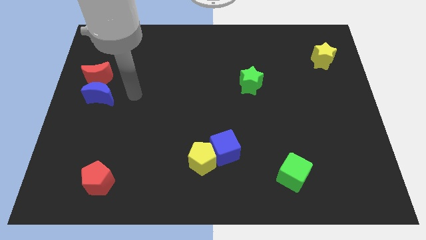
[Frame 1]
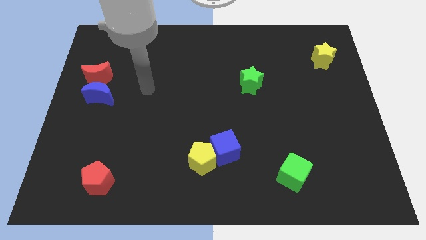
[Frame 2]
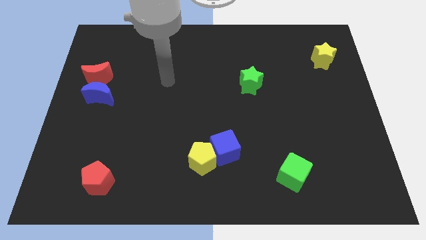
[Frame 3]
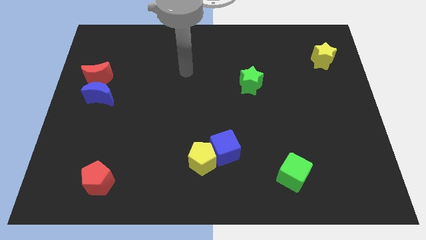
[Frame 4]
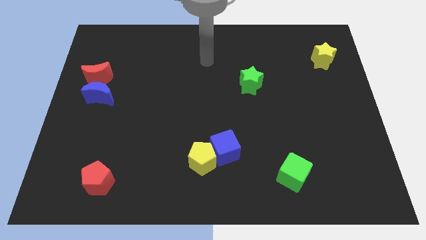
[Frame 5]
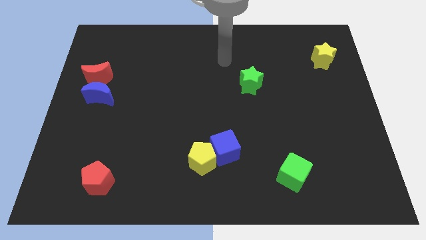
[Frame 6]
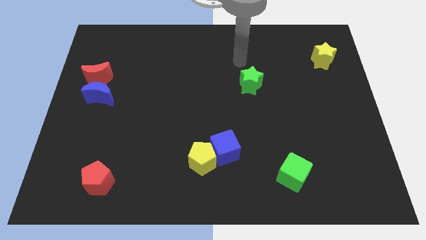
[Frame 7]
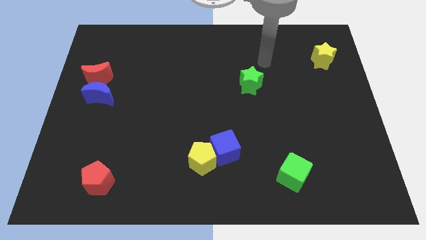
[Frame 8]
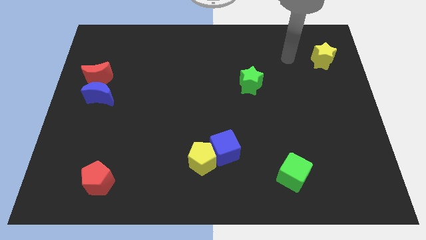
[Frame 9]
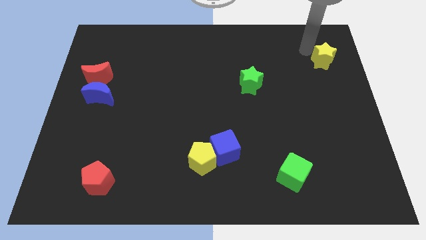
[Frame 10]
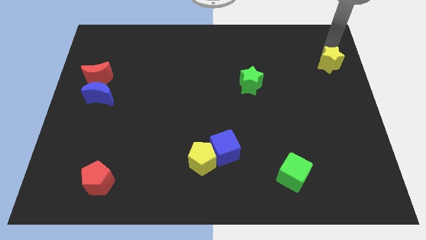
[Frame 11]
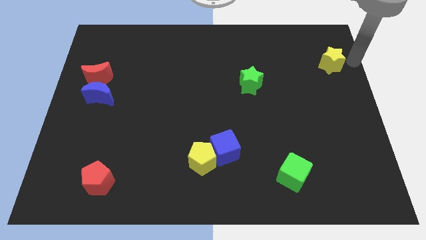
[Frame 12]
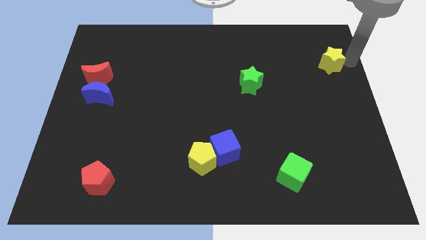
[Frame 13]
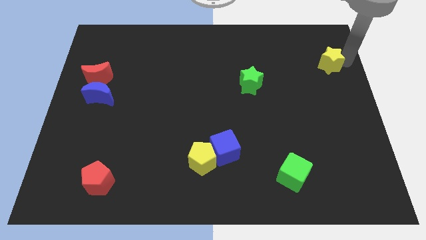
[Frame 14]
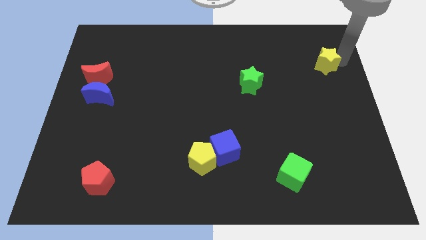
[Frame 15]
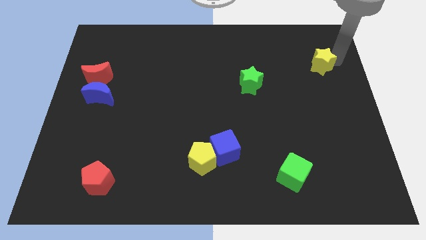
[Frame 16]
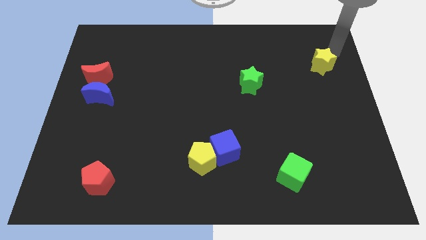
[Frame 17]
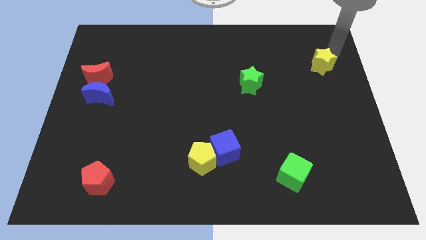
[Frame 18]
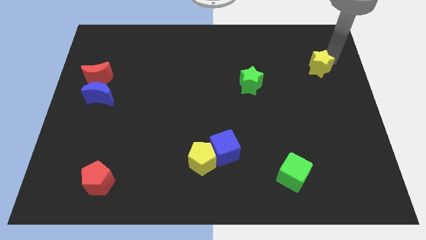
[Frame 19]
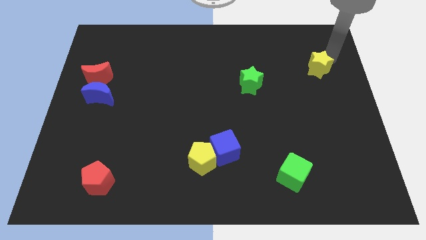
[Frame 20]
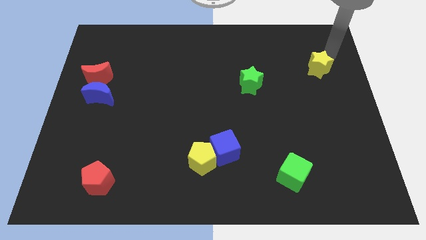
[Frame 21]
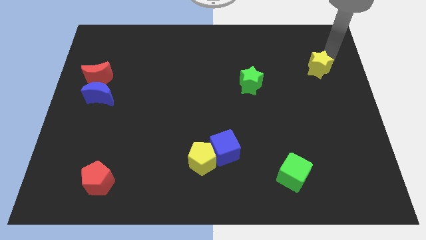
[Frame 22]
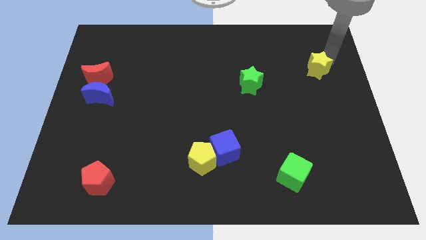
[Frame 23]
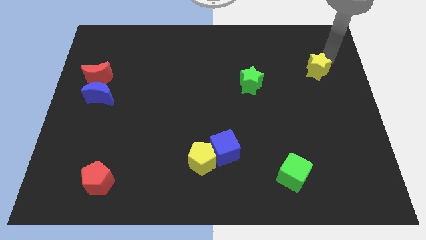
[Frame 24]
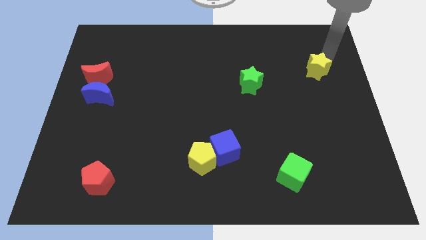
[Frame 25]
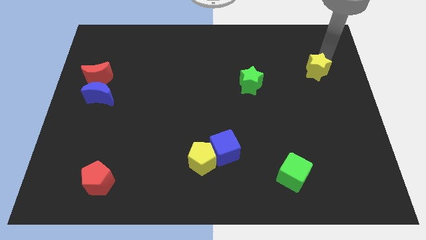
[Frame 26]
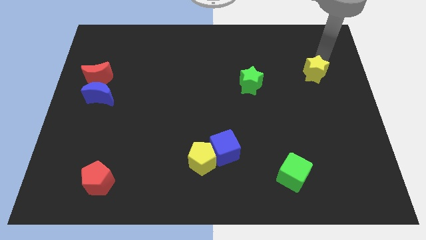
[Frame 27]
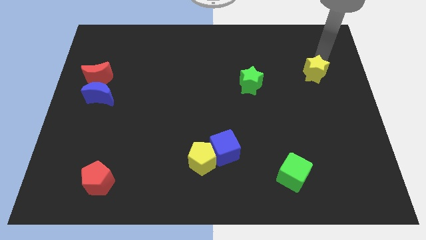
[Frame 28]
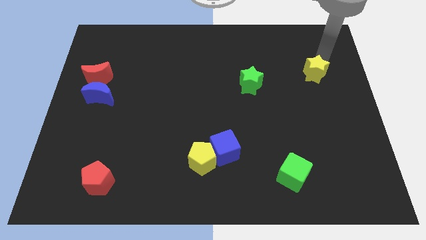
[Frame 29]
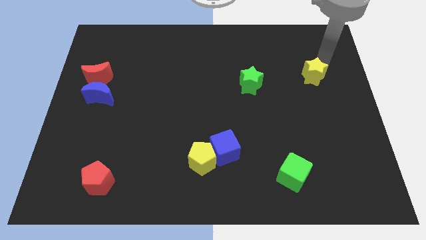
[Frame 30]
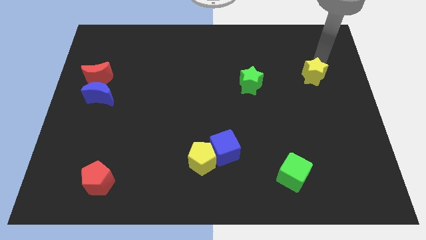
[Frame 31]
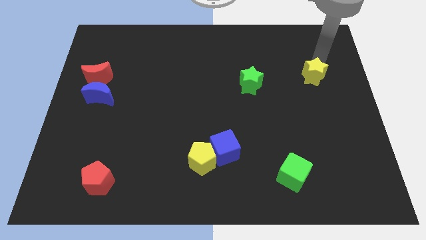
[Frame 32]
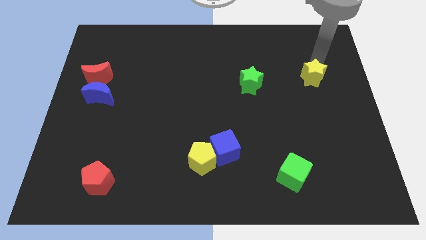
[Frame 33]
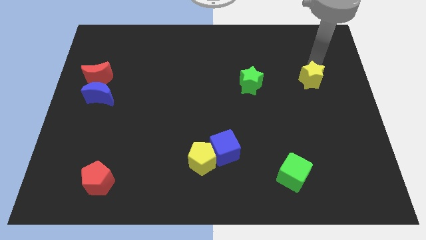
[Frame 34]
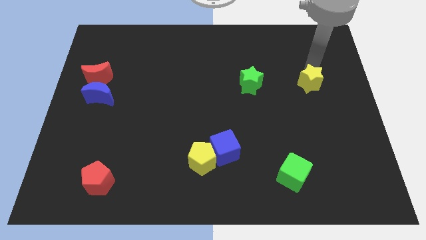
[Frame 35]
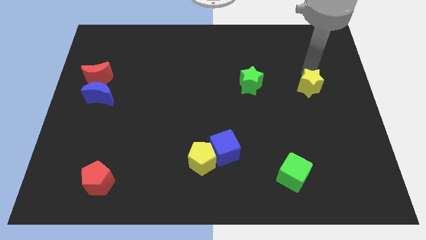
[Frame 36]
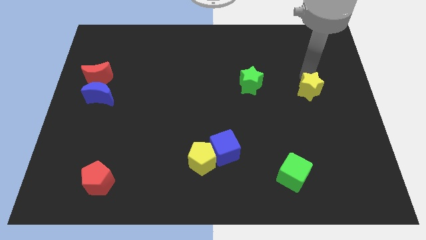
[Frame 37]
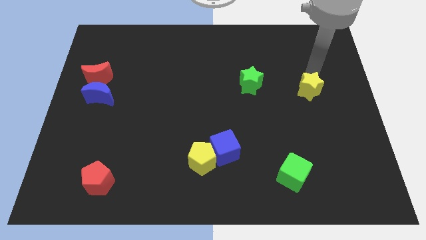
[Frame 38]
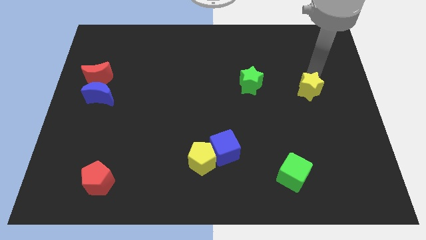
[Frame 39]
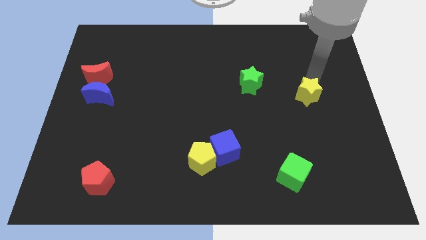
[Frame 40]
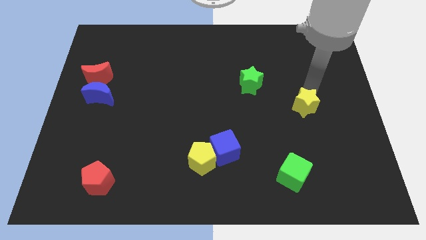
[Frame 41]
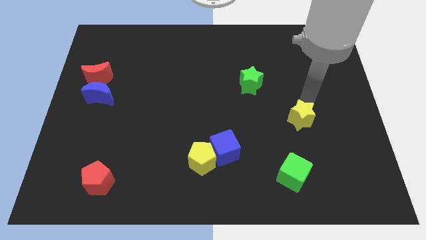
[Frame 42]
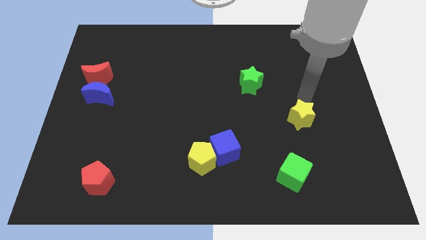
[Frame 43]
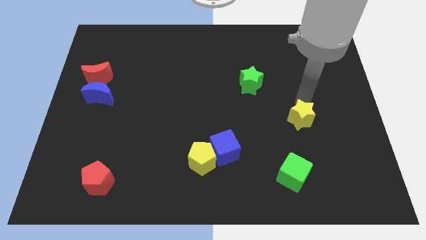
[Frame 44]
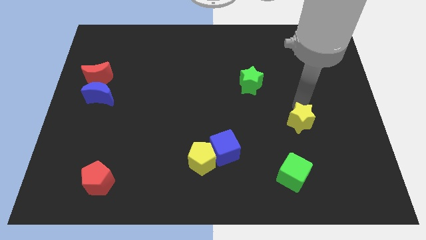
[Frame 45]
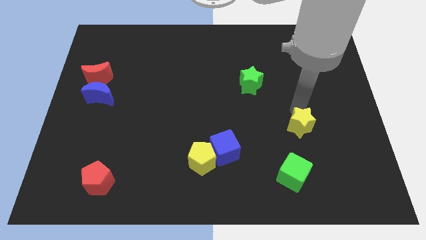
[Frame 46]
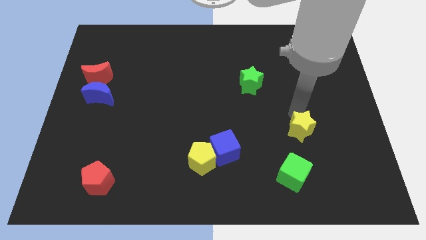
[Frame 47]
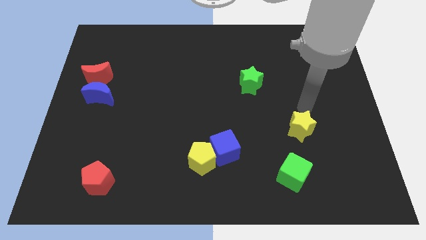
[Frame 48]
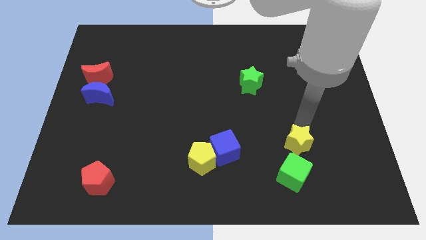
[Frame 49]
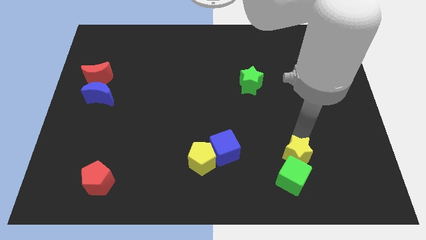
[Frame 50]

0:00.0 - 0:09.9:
move the yellow star close to the green cube

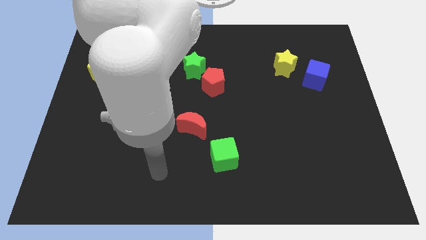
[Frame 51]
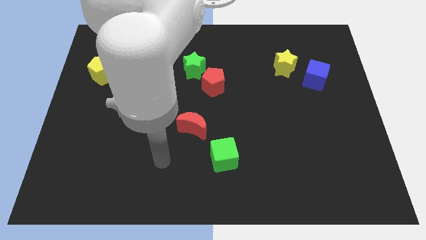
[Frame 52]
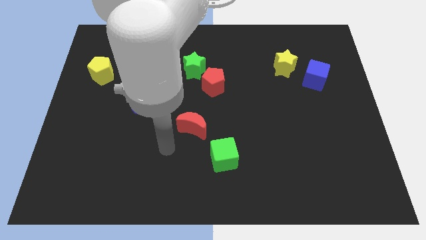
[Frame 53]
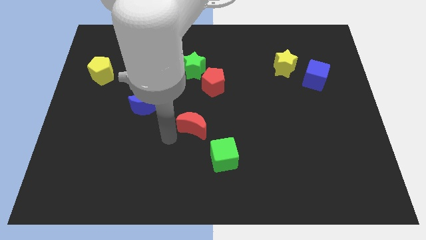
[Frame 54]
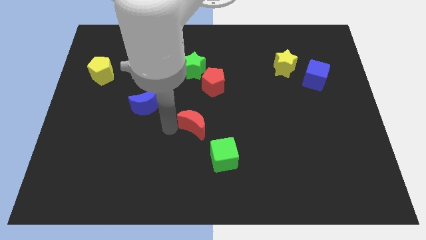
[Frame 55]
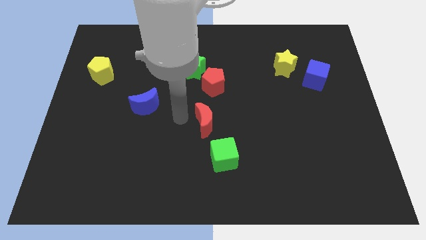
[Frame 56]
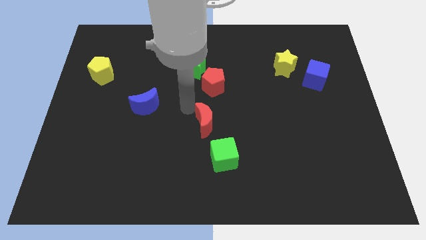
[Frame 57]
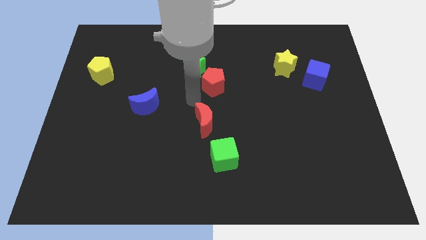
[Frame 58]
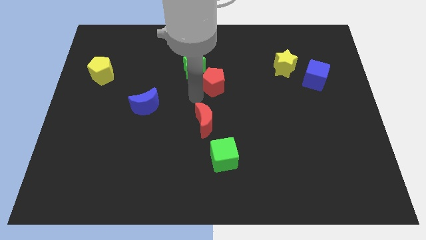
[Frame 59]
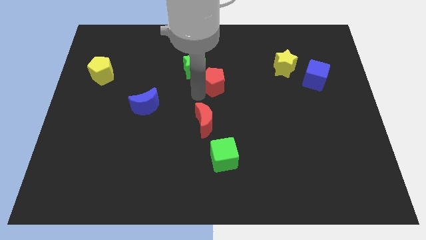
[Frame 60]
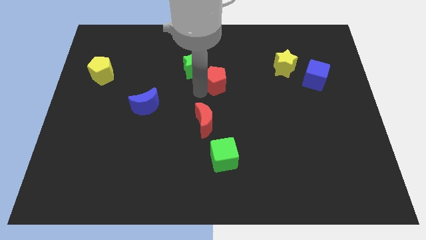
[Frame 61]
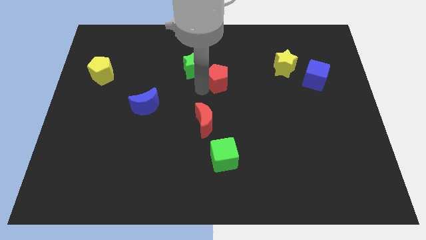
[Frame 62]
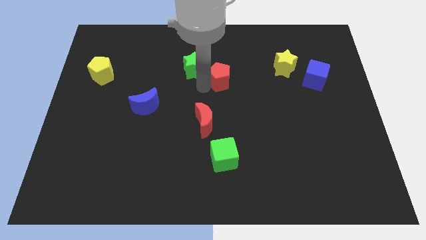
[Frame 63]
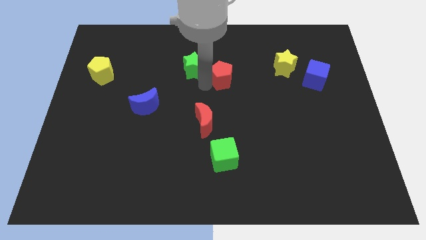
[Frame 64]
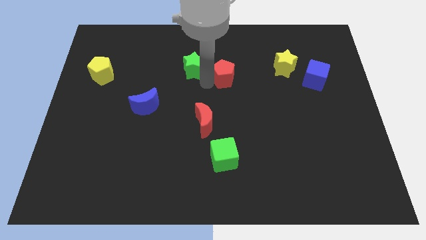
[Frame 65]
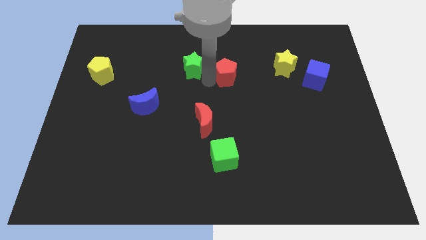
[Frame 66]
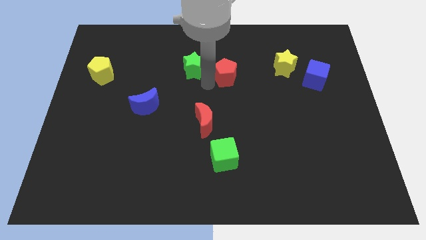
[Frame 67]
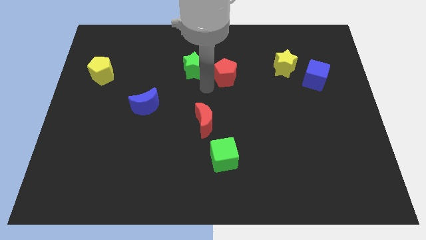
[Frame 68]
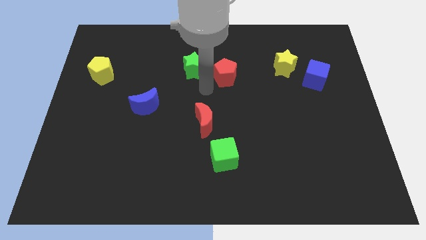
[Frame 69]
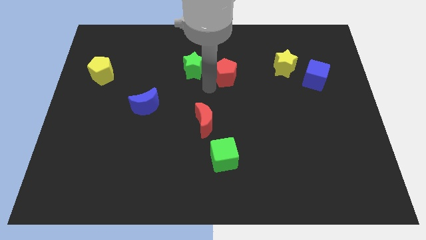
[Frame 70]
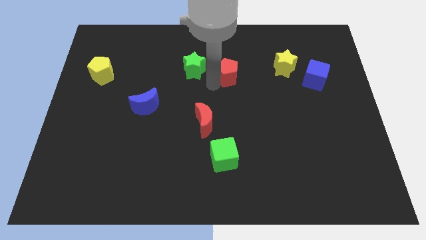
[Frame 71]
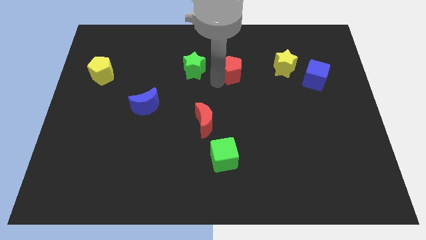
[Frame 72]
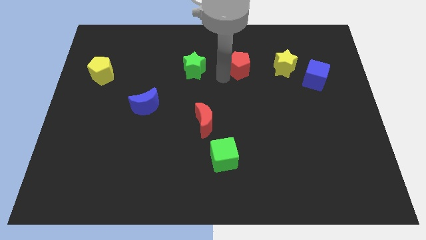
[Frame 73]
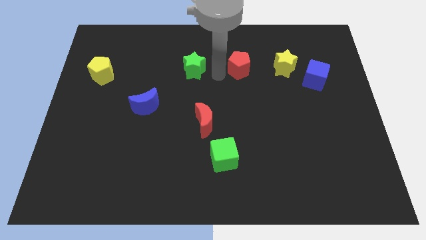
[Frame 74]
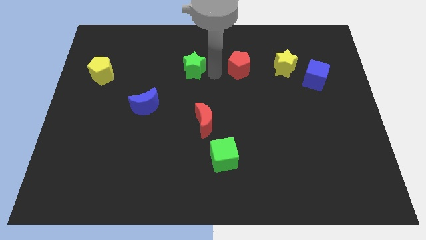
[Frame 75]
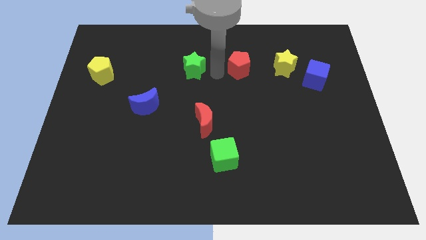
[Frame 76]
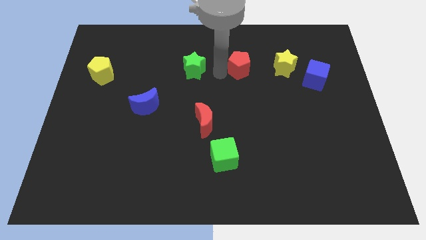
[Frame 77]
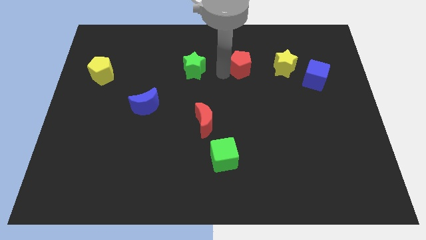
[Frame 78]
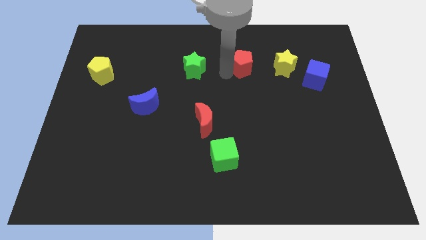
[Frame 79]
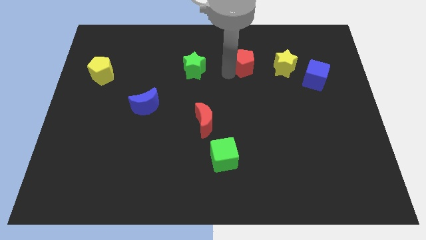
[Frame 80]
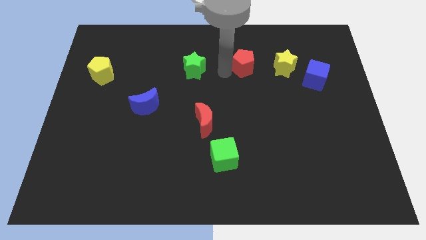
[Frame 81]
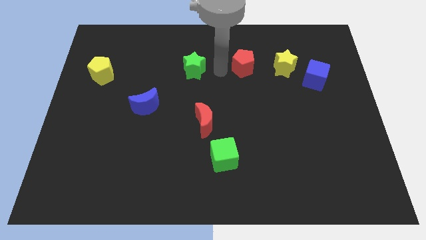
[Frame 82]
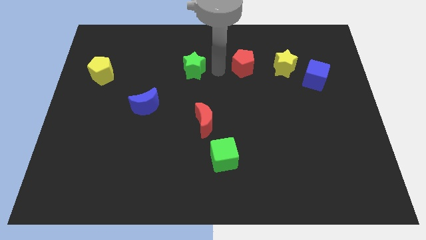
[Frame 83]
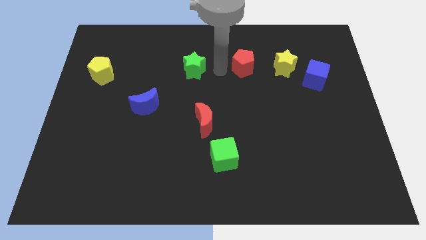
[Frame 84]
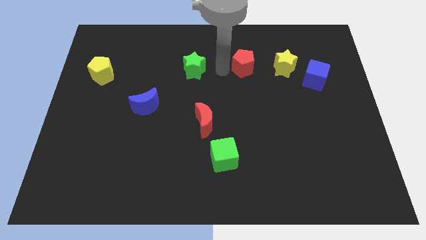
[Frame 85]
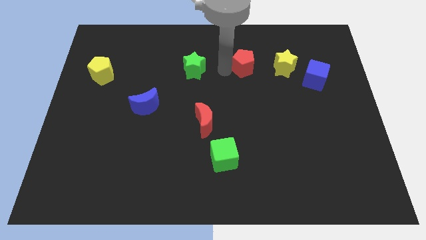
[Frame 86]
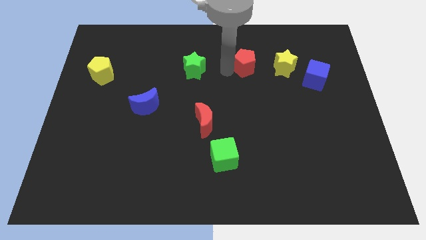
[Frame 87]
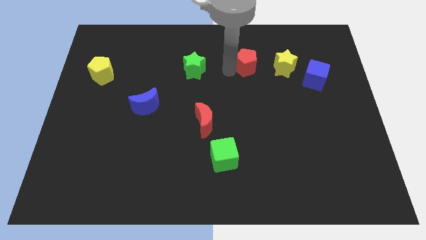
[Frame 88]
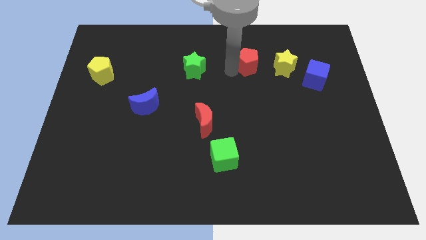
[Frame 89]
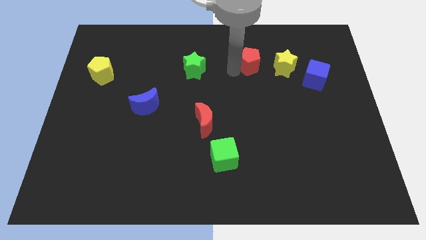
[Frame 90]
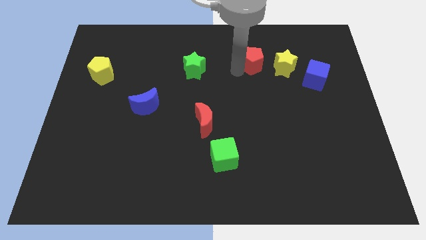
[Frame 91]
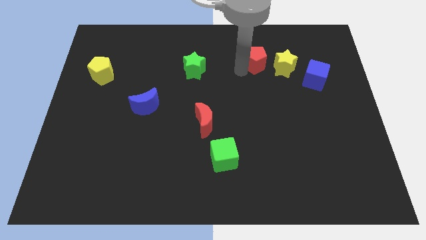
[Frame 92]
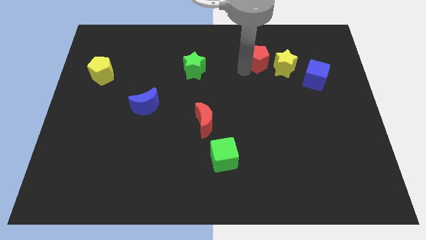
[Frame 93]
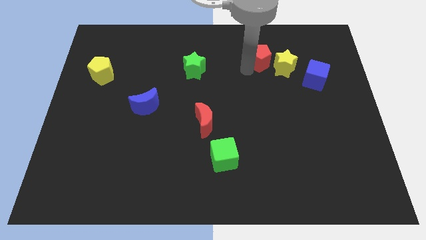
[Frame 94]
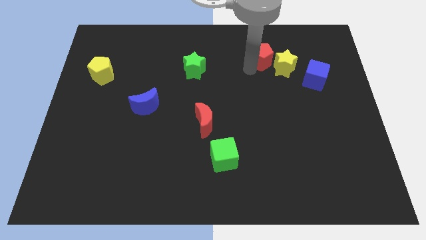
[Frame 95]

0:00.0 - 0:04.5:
slide the red pentagon close to the yellow star
